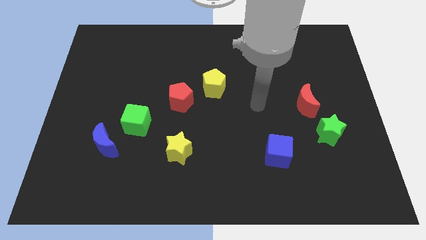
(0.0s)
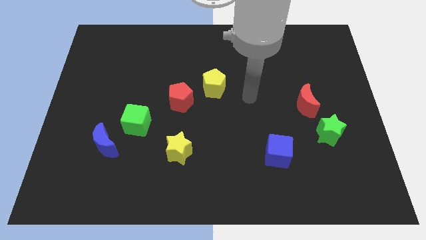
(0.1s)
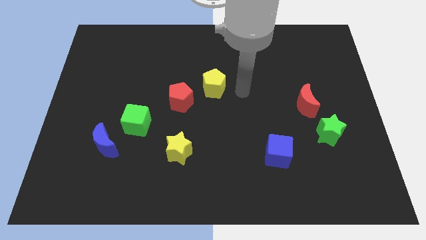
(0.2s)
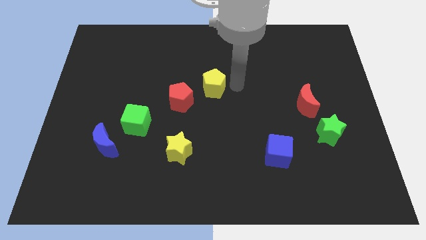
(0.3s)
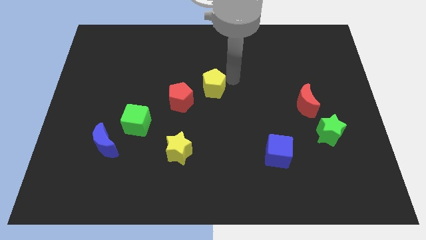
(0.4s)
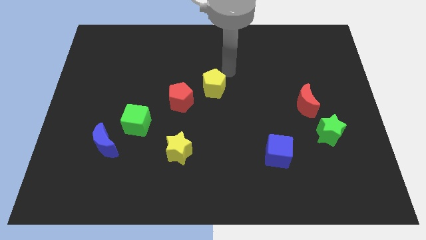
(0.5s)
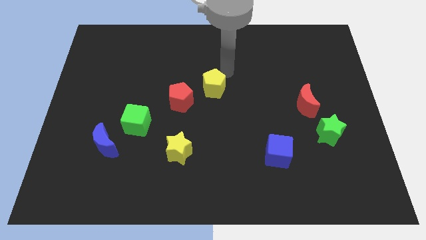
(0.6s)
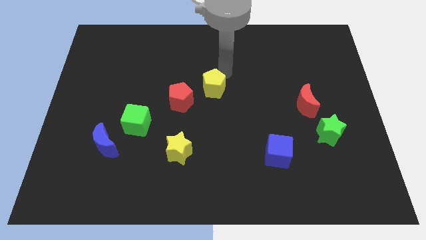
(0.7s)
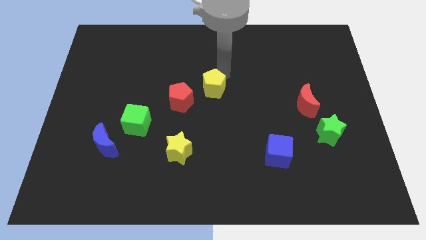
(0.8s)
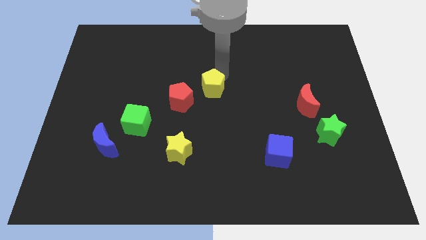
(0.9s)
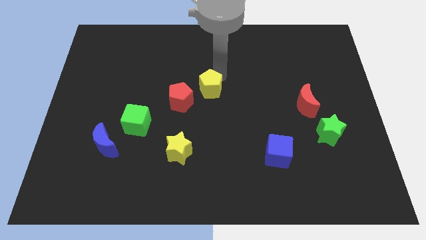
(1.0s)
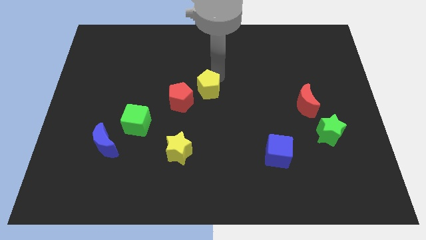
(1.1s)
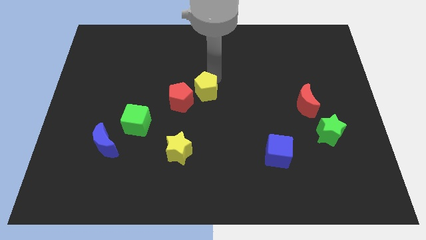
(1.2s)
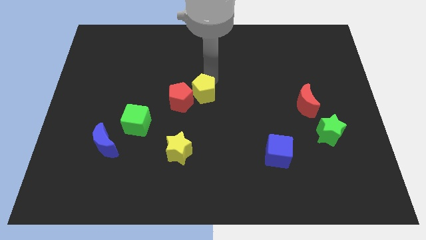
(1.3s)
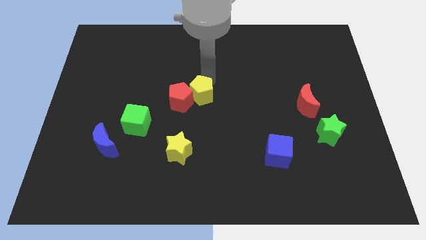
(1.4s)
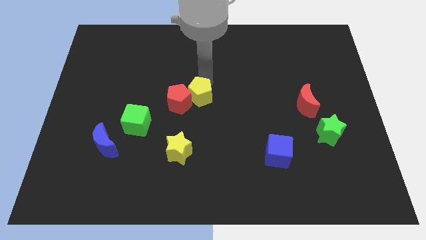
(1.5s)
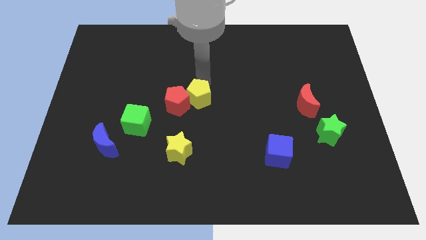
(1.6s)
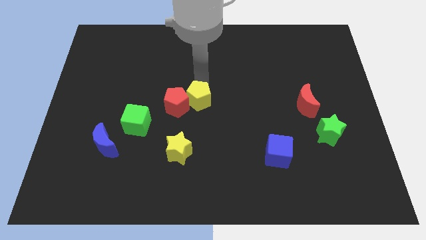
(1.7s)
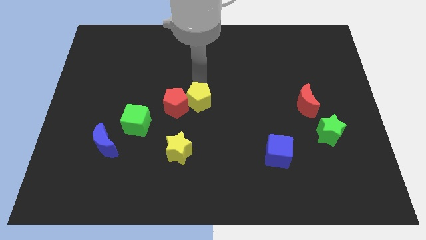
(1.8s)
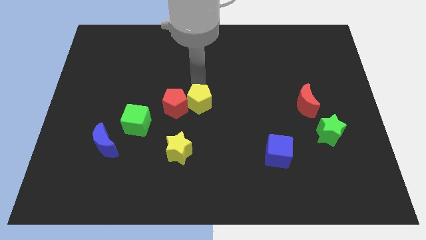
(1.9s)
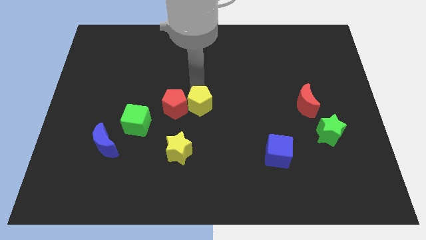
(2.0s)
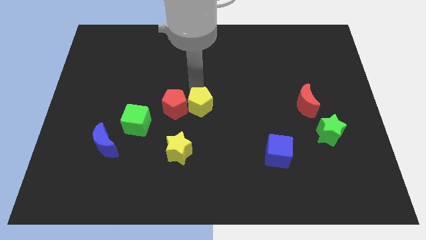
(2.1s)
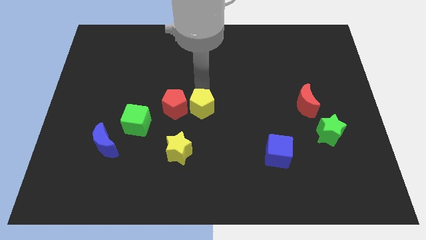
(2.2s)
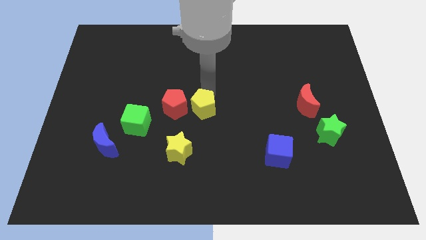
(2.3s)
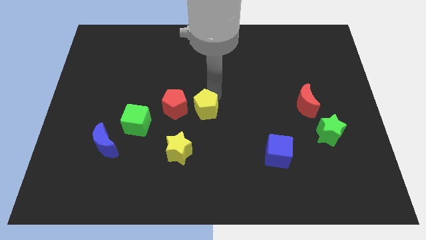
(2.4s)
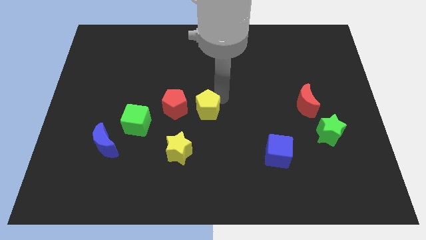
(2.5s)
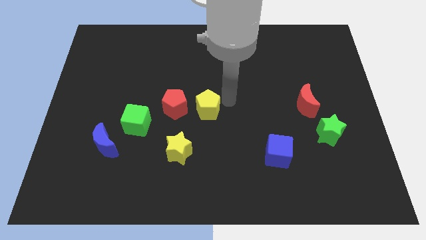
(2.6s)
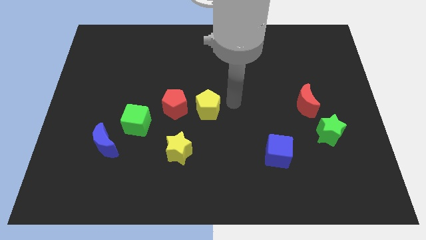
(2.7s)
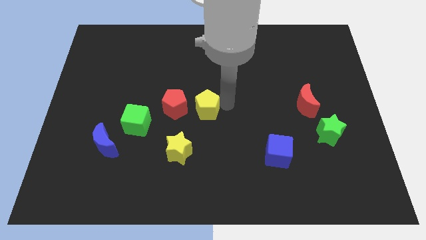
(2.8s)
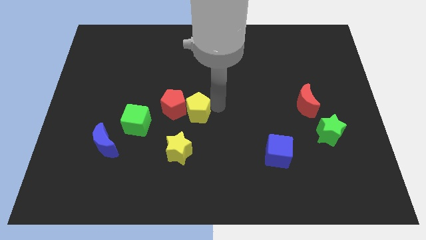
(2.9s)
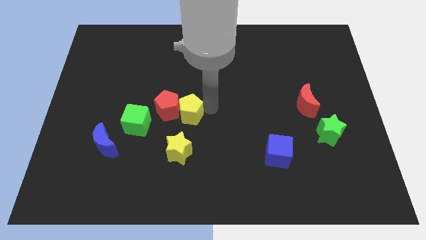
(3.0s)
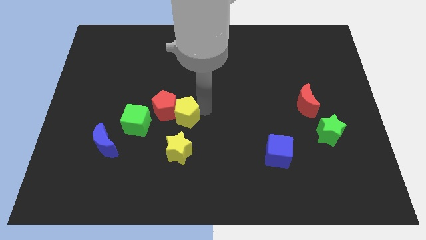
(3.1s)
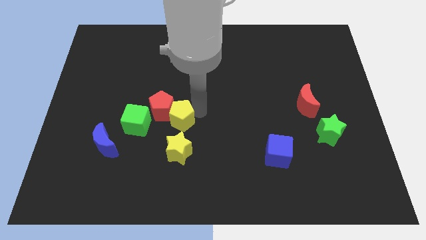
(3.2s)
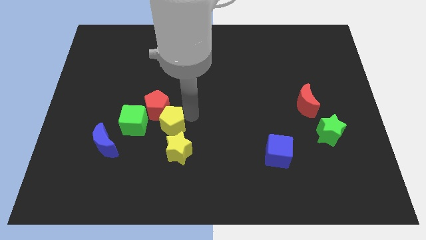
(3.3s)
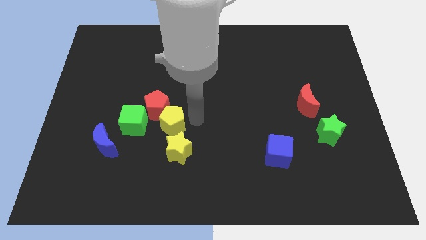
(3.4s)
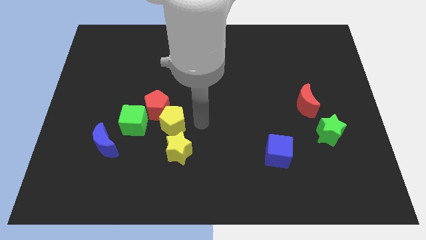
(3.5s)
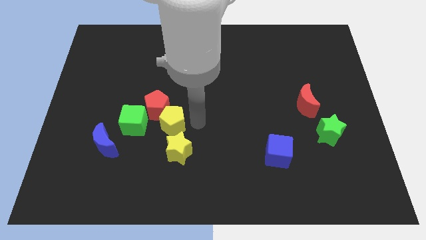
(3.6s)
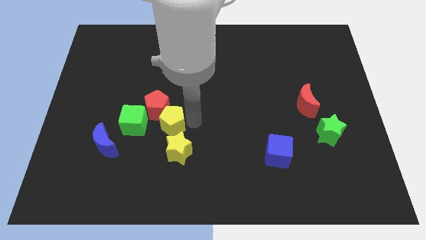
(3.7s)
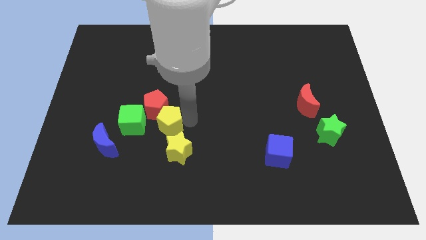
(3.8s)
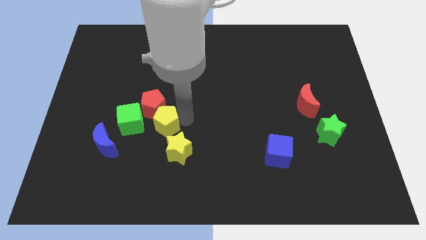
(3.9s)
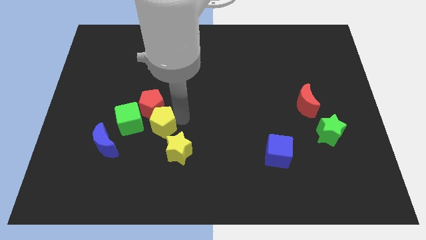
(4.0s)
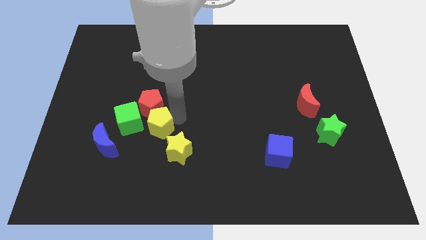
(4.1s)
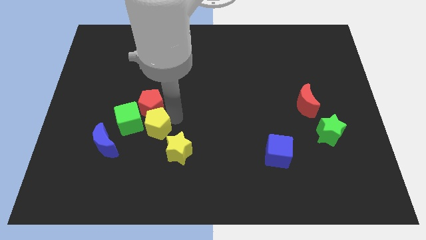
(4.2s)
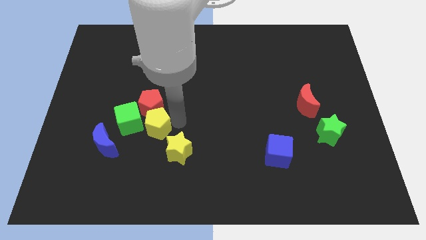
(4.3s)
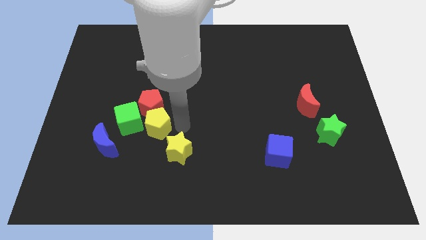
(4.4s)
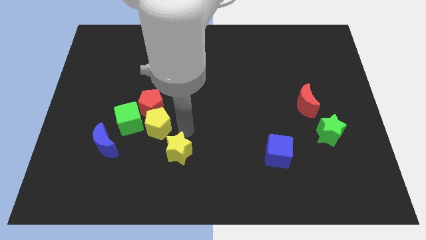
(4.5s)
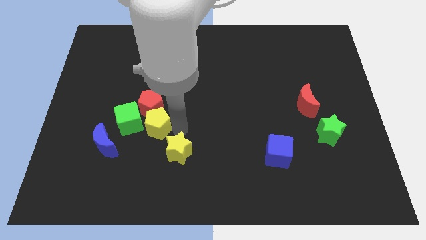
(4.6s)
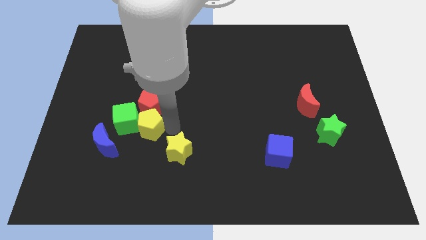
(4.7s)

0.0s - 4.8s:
move the yellow pentagon towards the green cube

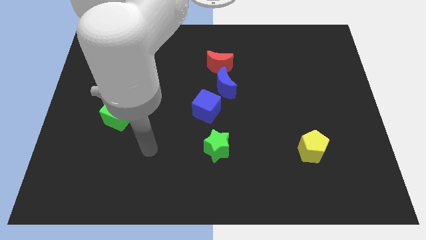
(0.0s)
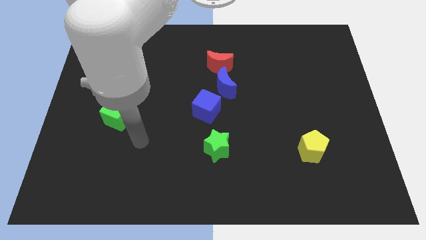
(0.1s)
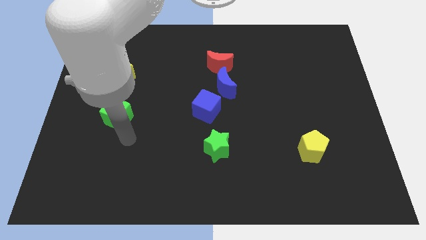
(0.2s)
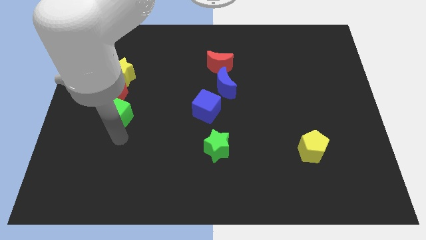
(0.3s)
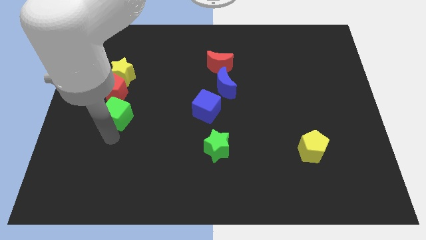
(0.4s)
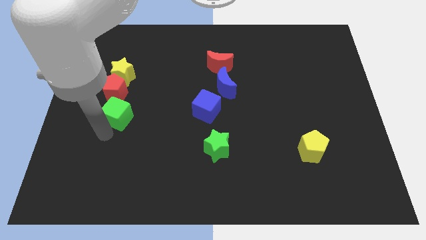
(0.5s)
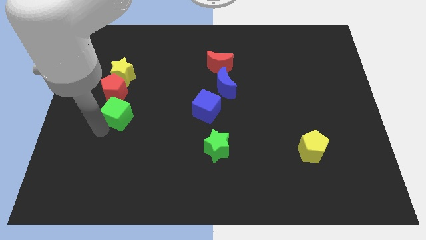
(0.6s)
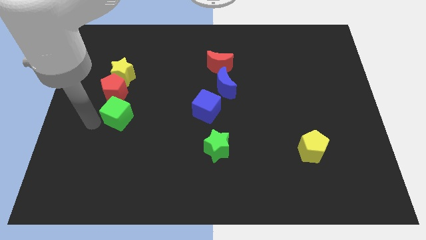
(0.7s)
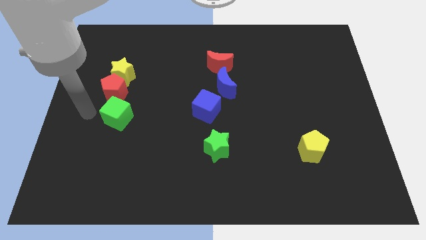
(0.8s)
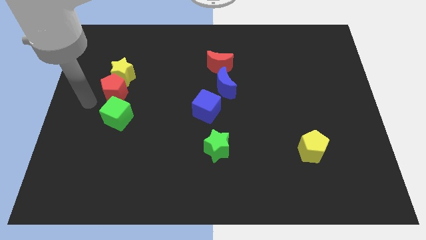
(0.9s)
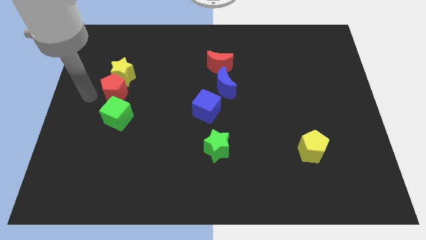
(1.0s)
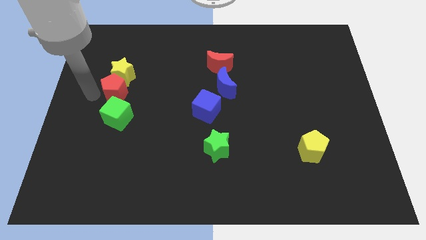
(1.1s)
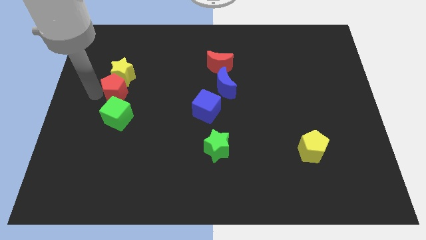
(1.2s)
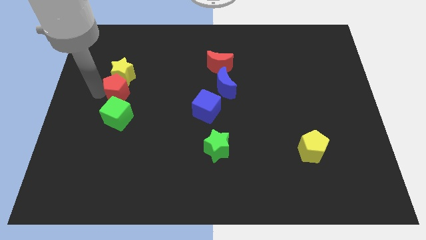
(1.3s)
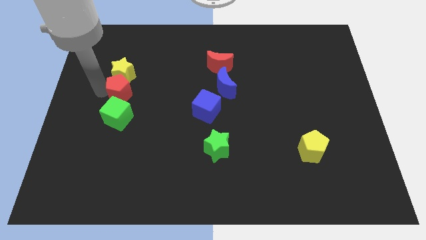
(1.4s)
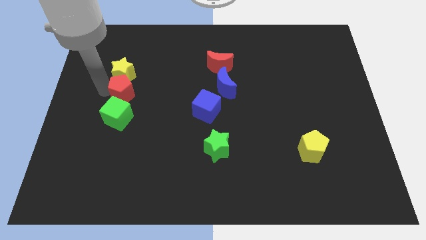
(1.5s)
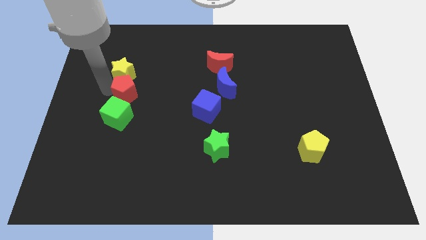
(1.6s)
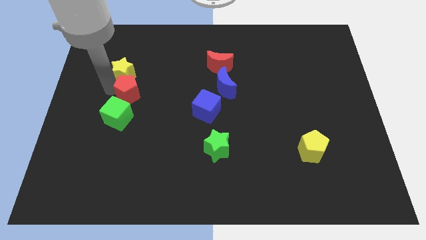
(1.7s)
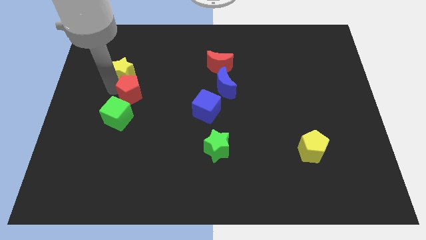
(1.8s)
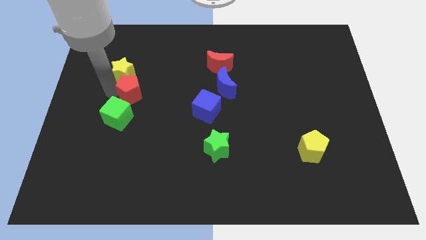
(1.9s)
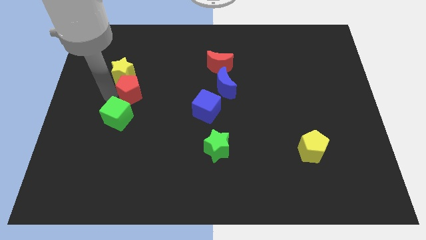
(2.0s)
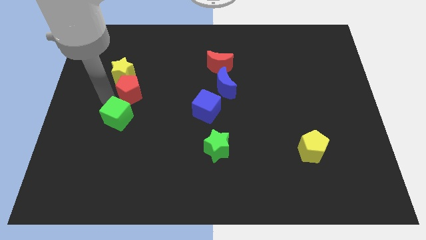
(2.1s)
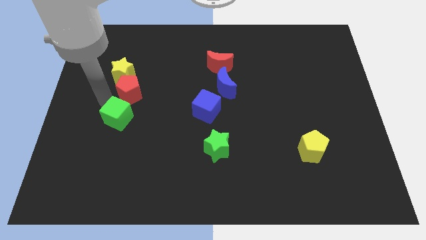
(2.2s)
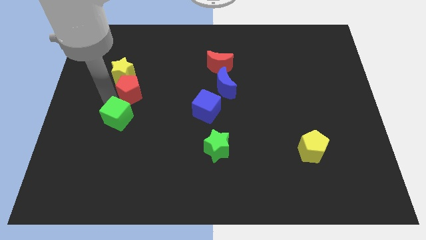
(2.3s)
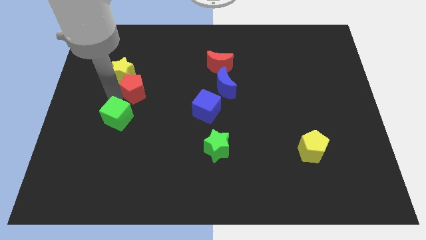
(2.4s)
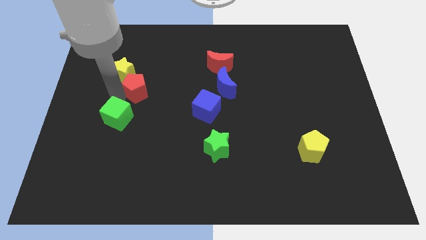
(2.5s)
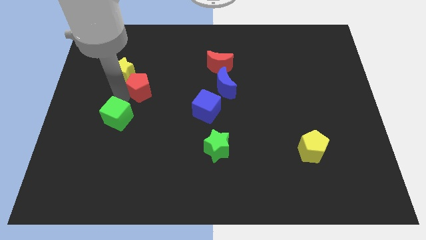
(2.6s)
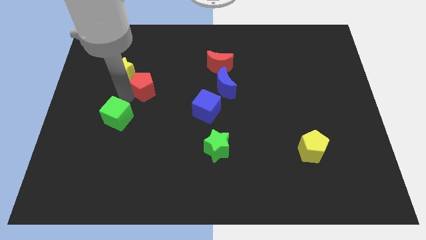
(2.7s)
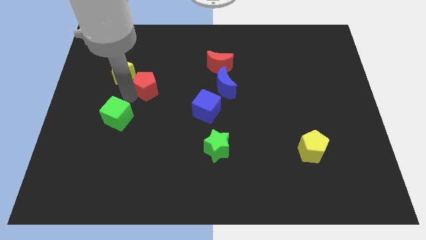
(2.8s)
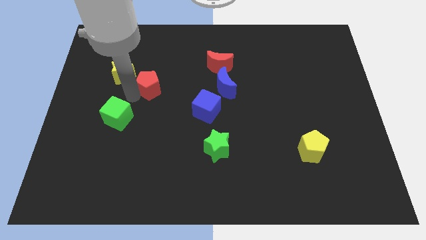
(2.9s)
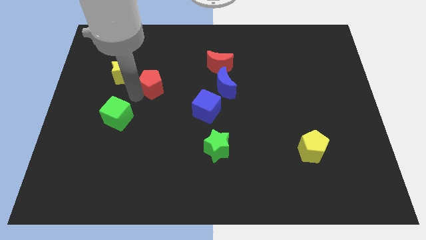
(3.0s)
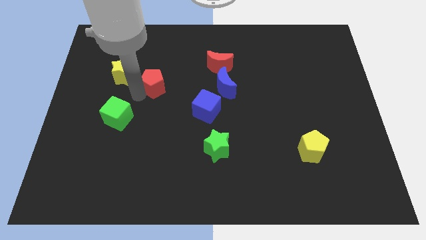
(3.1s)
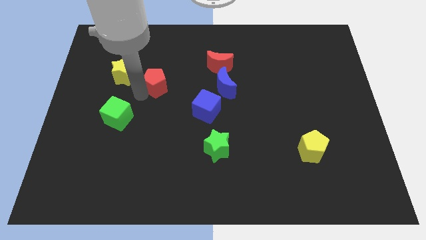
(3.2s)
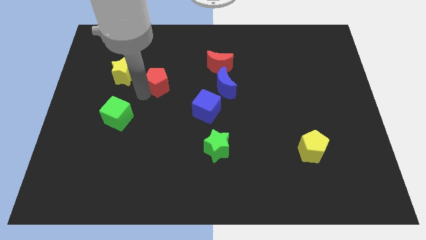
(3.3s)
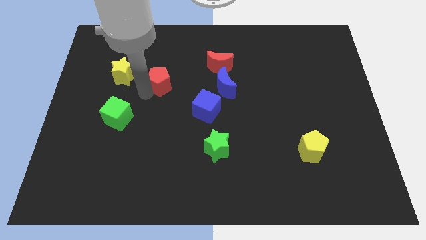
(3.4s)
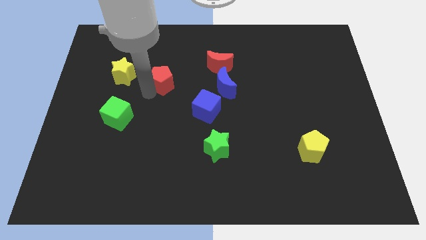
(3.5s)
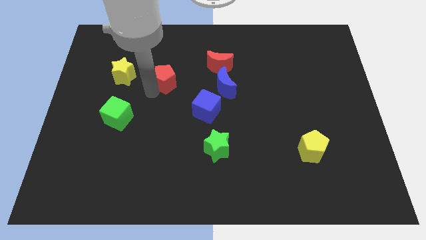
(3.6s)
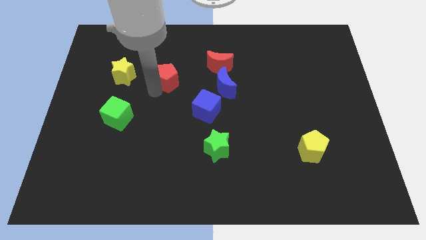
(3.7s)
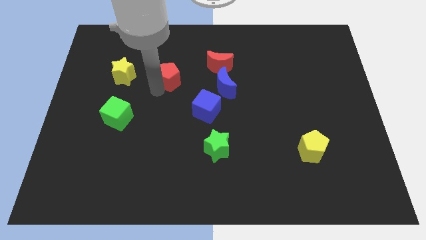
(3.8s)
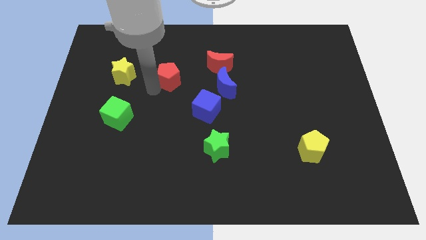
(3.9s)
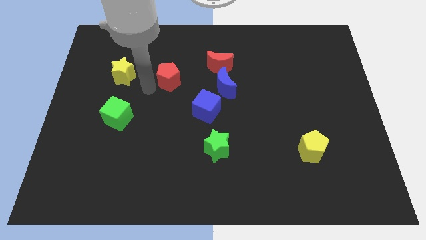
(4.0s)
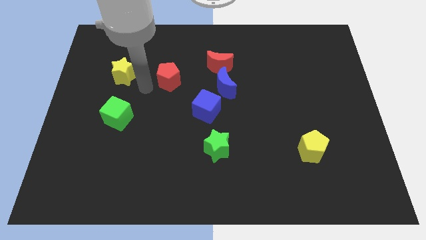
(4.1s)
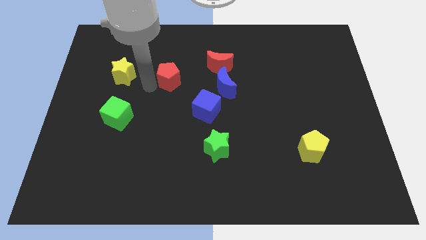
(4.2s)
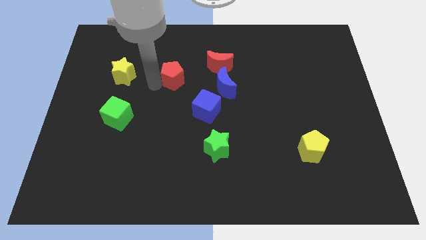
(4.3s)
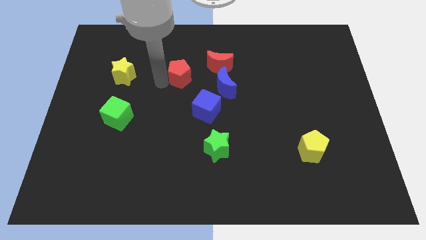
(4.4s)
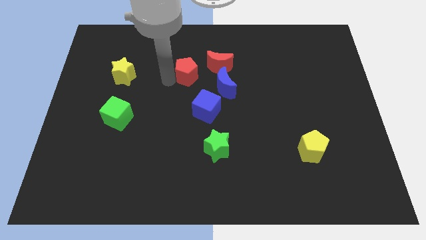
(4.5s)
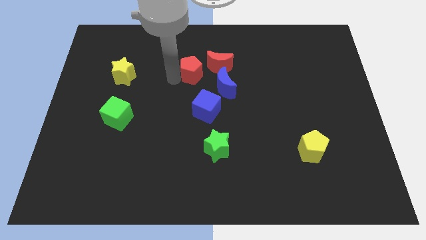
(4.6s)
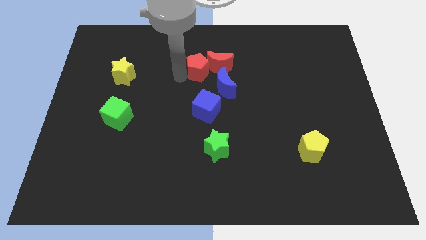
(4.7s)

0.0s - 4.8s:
move the red pentagon to the red moon
